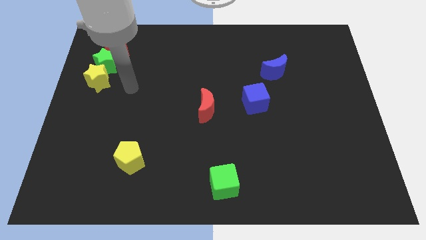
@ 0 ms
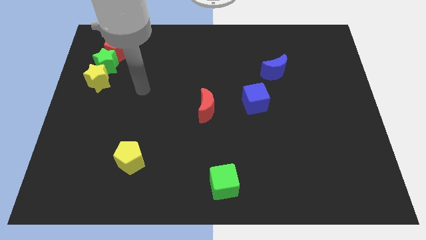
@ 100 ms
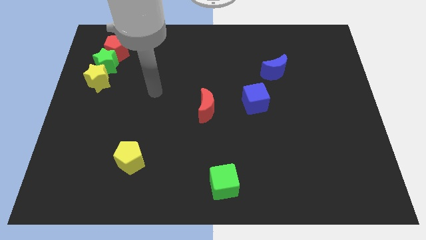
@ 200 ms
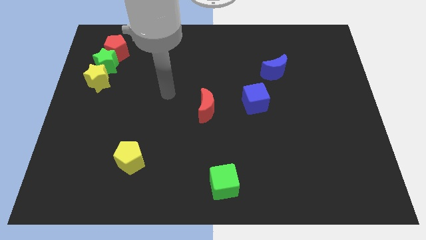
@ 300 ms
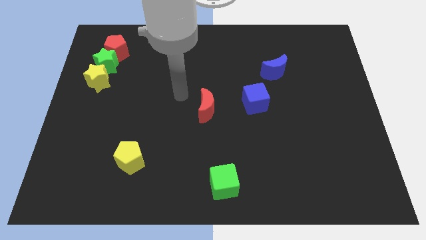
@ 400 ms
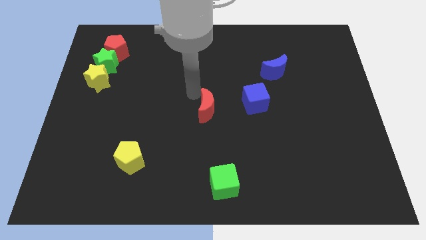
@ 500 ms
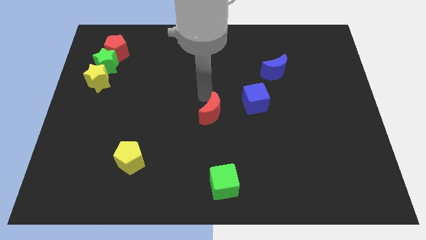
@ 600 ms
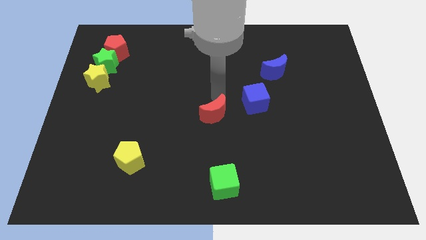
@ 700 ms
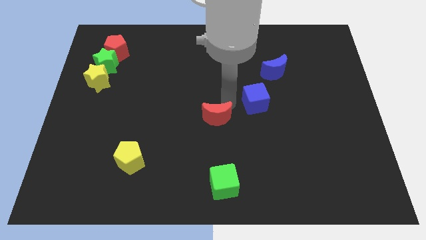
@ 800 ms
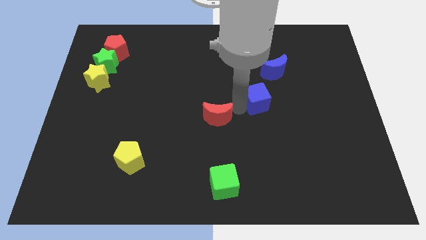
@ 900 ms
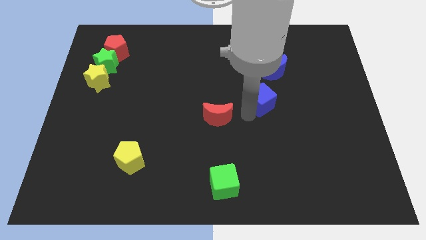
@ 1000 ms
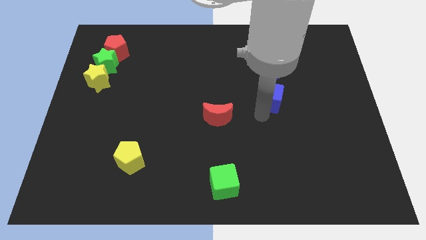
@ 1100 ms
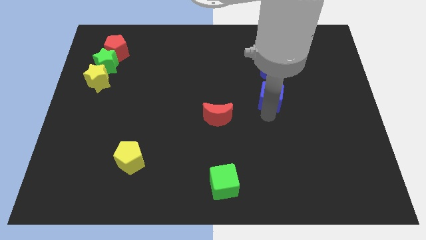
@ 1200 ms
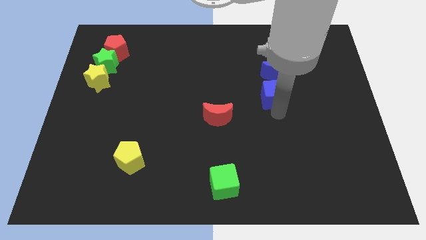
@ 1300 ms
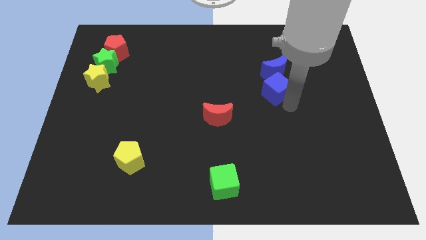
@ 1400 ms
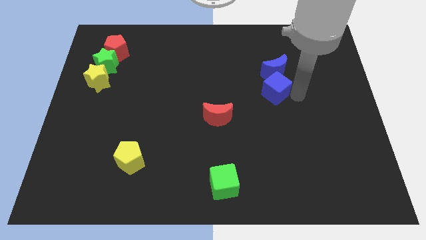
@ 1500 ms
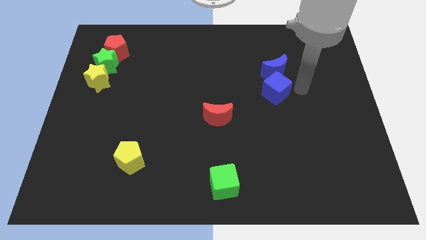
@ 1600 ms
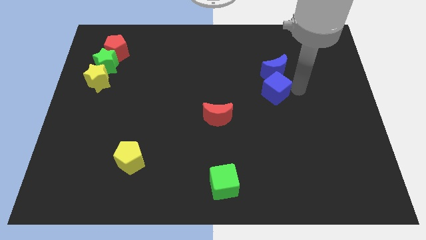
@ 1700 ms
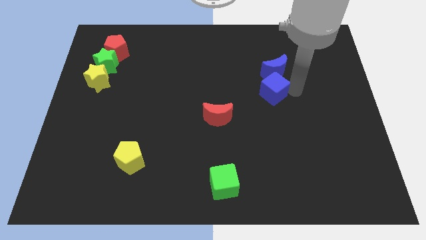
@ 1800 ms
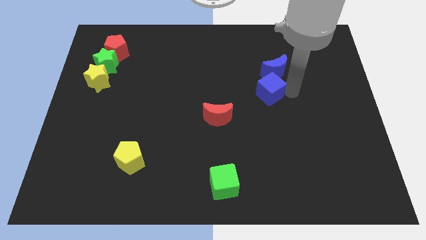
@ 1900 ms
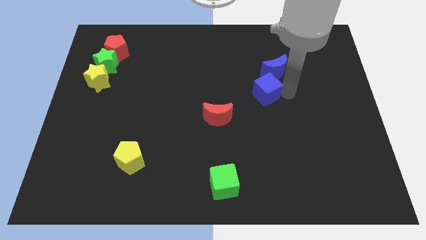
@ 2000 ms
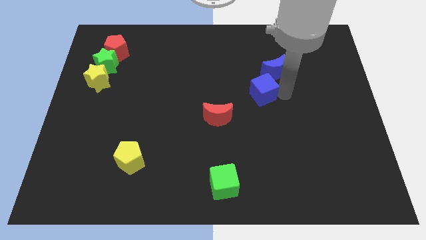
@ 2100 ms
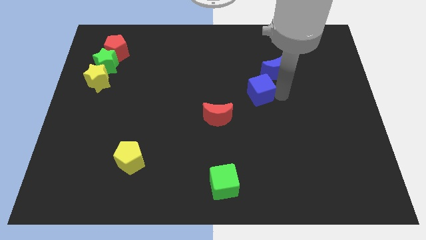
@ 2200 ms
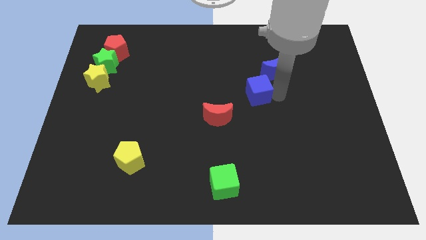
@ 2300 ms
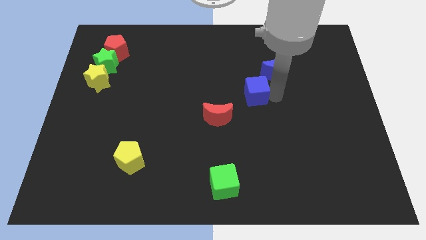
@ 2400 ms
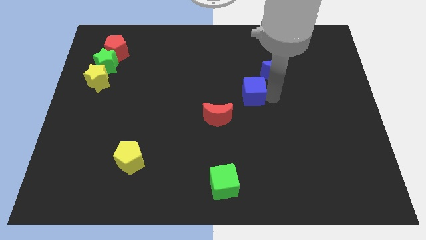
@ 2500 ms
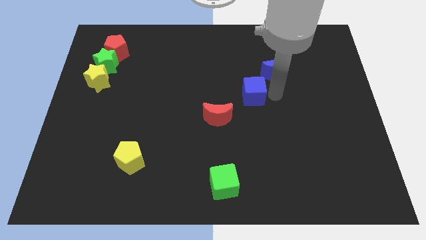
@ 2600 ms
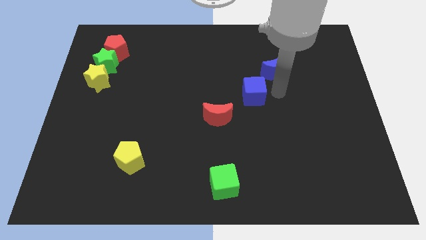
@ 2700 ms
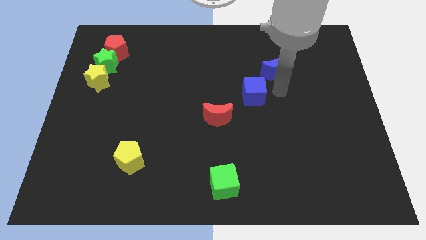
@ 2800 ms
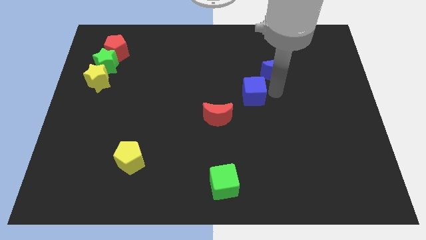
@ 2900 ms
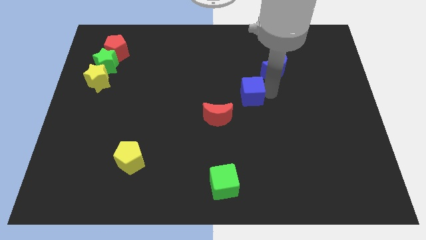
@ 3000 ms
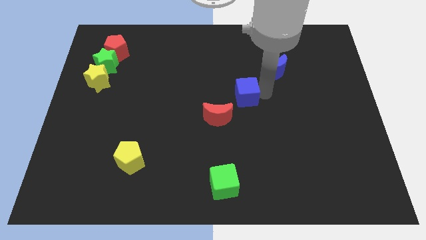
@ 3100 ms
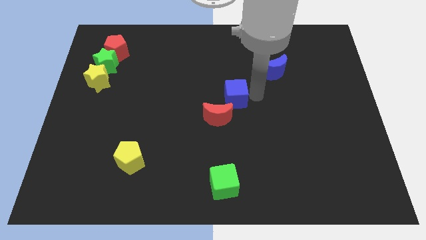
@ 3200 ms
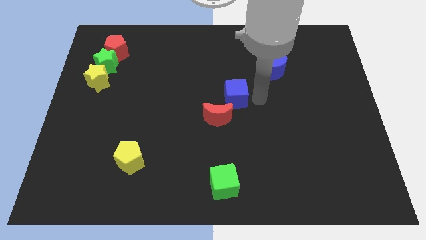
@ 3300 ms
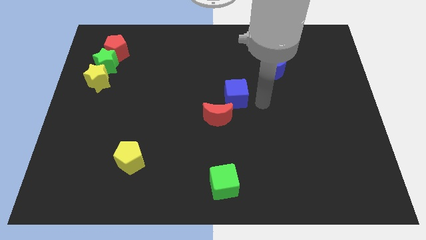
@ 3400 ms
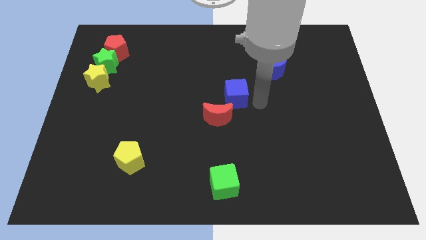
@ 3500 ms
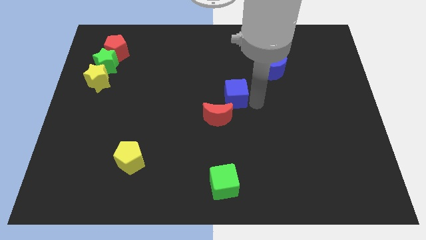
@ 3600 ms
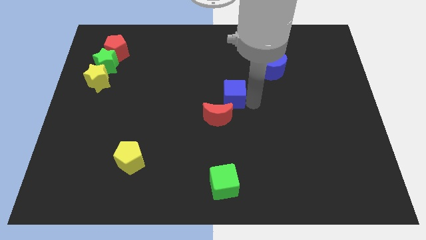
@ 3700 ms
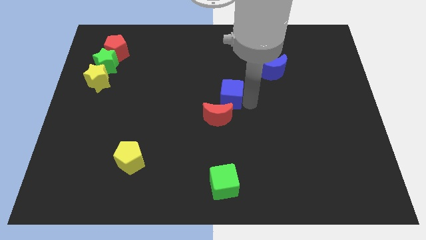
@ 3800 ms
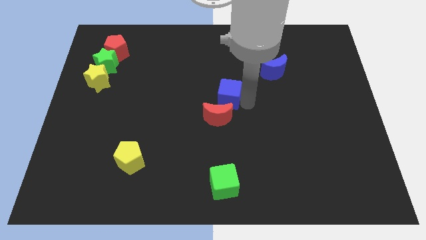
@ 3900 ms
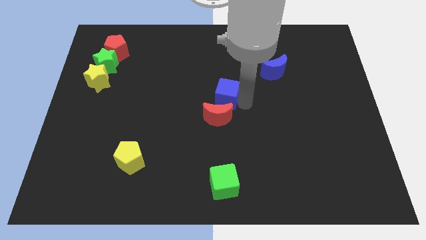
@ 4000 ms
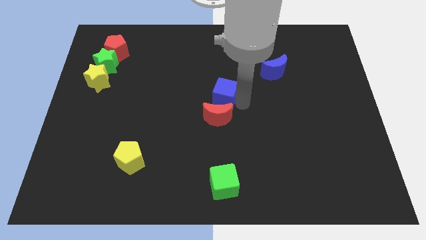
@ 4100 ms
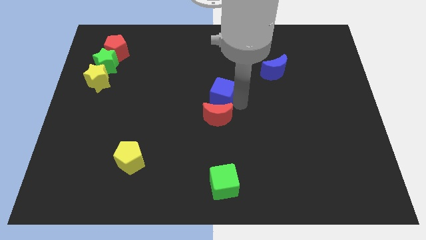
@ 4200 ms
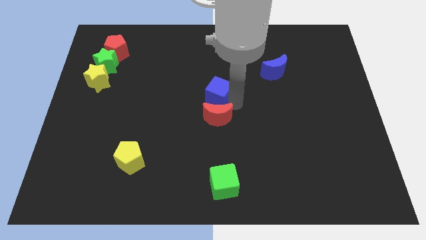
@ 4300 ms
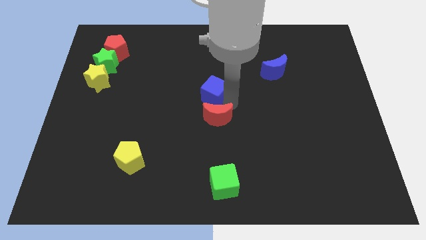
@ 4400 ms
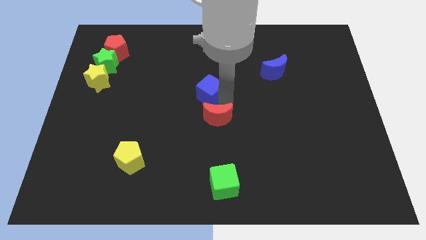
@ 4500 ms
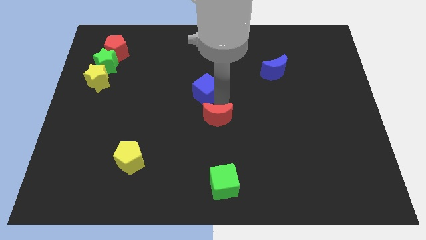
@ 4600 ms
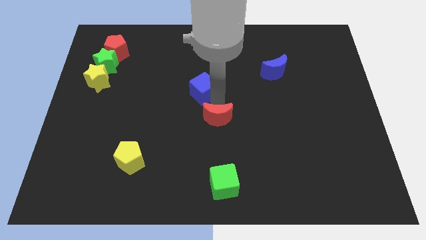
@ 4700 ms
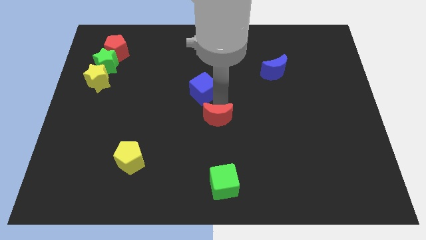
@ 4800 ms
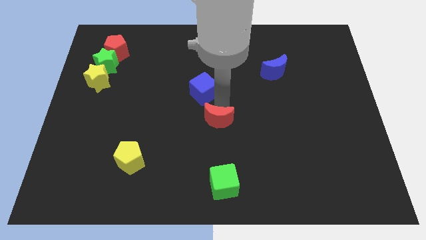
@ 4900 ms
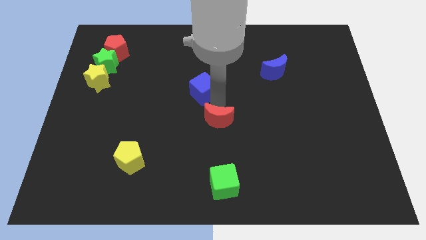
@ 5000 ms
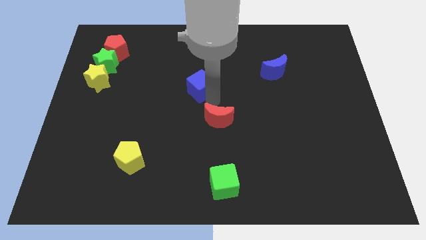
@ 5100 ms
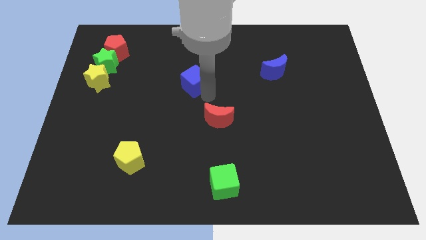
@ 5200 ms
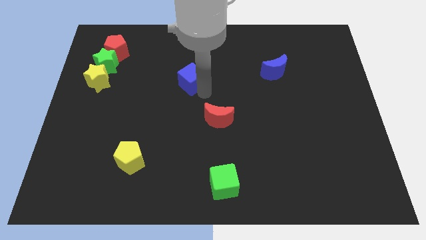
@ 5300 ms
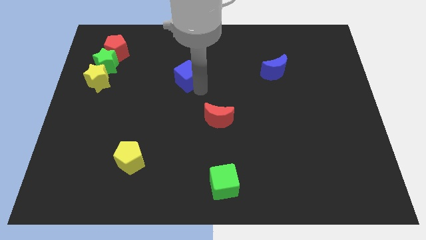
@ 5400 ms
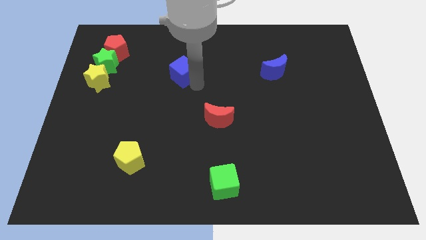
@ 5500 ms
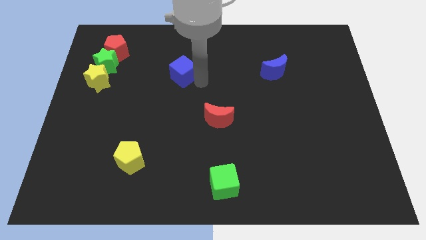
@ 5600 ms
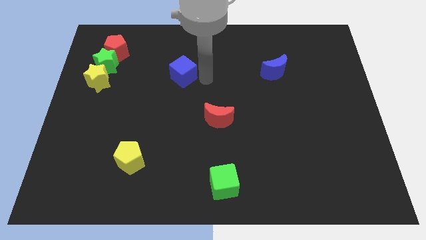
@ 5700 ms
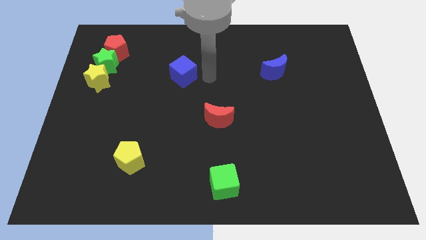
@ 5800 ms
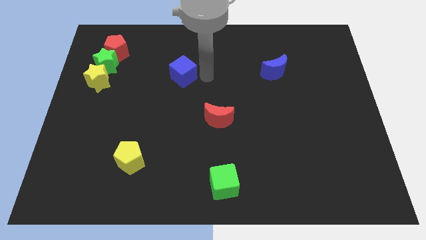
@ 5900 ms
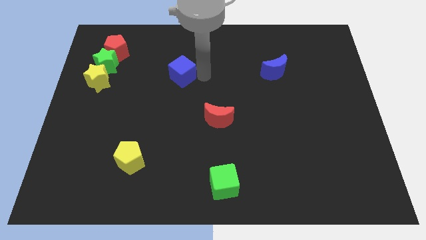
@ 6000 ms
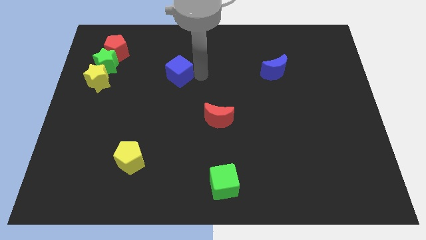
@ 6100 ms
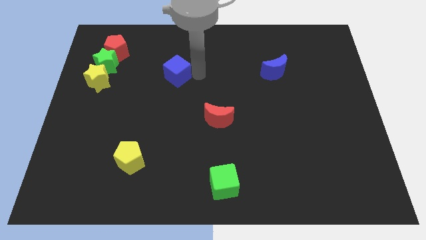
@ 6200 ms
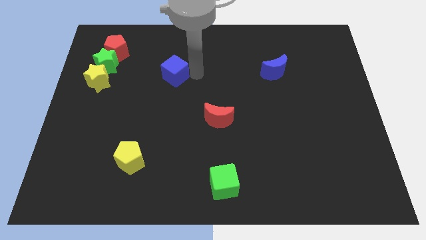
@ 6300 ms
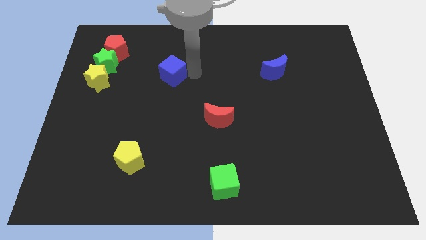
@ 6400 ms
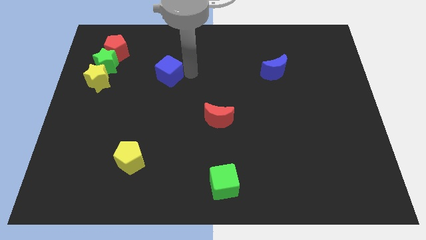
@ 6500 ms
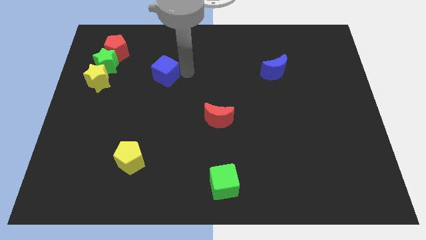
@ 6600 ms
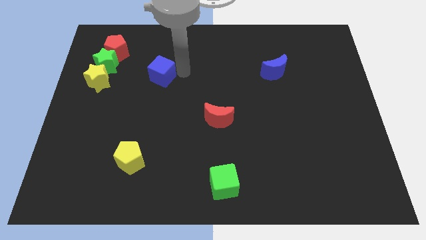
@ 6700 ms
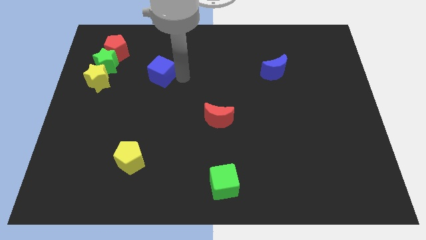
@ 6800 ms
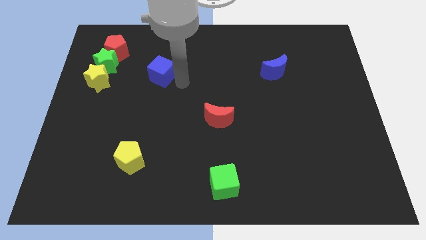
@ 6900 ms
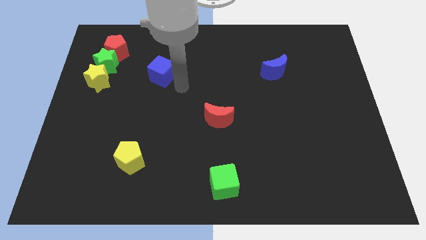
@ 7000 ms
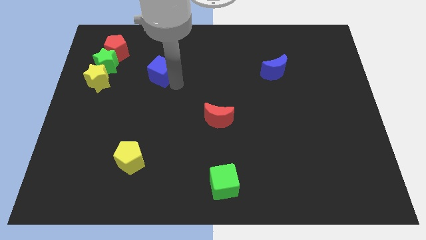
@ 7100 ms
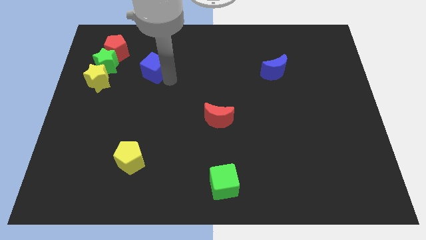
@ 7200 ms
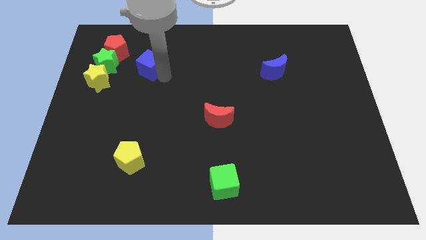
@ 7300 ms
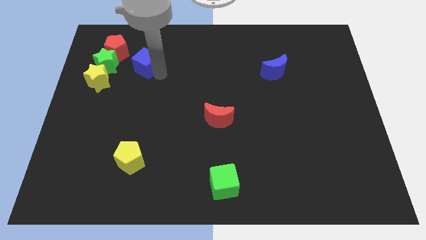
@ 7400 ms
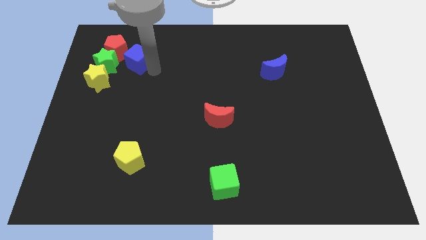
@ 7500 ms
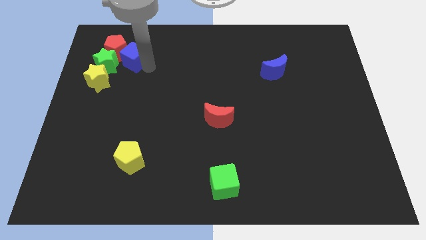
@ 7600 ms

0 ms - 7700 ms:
put the blue cube next to the red pentagon
